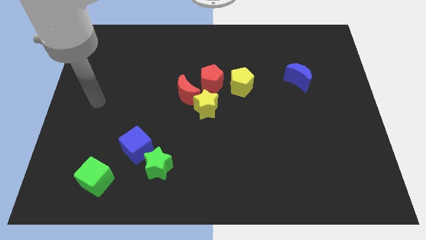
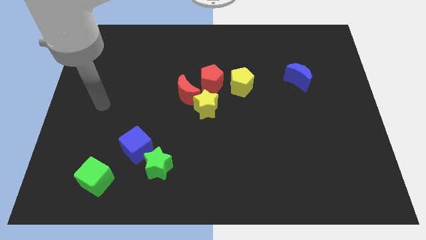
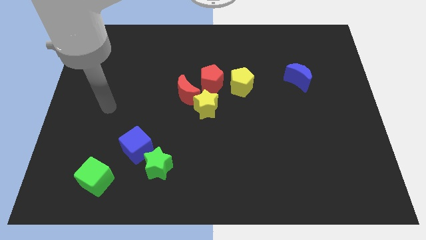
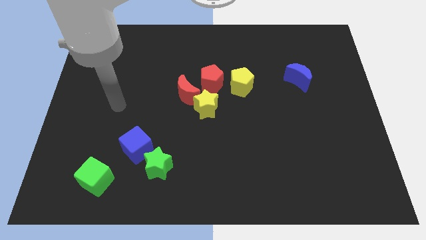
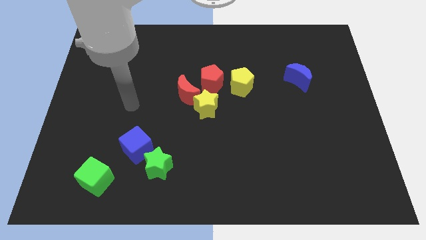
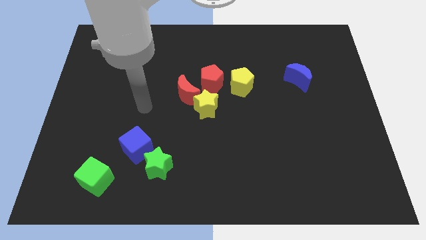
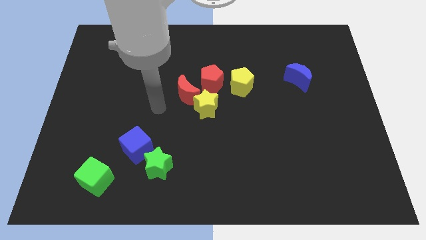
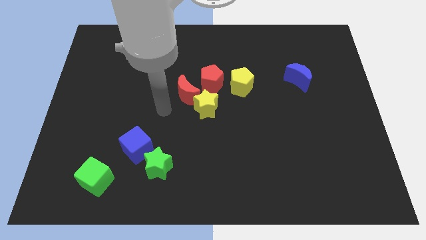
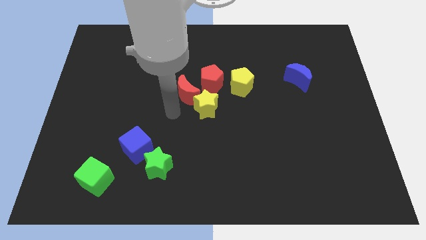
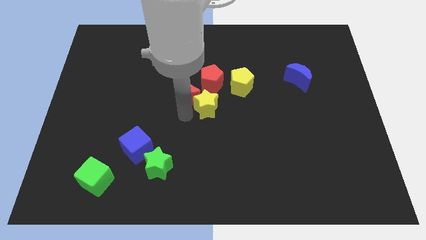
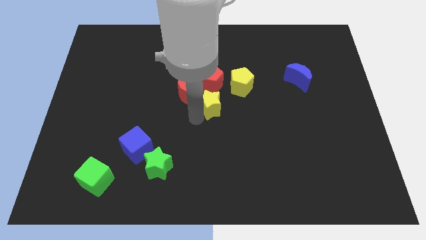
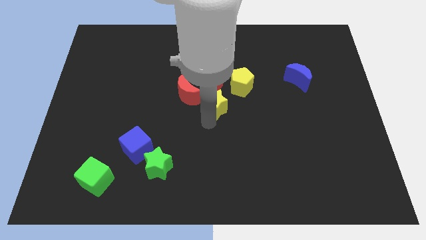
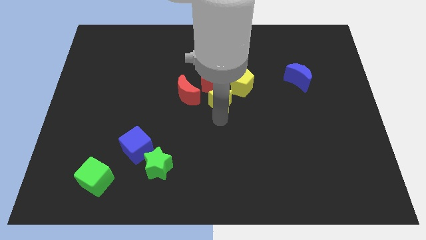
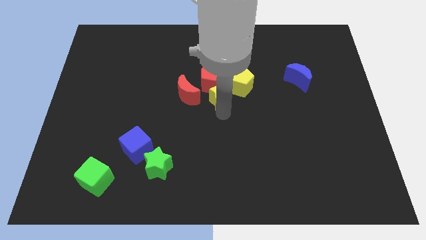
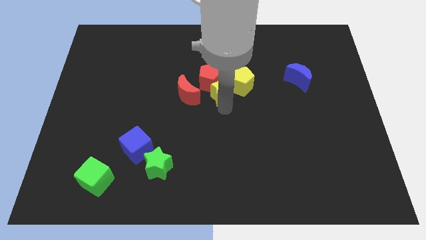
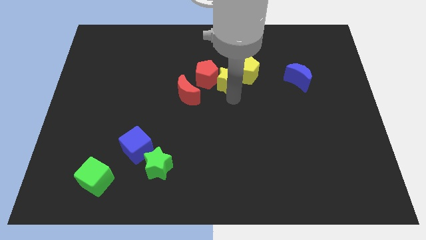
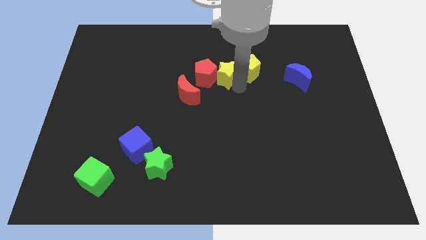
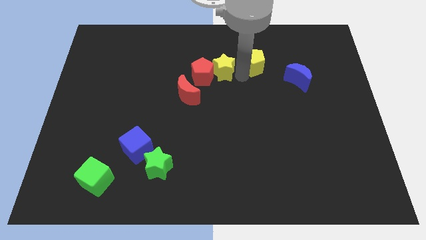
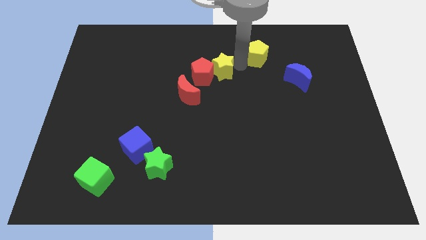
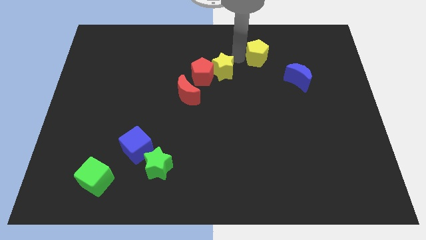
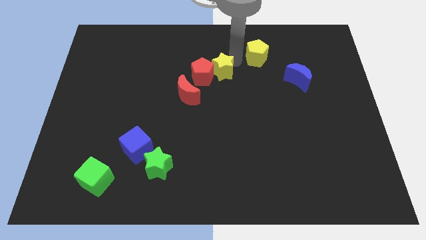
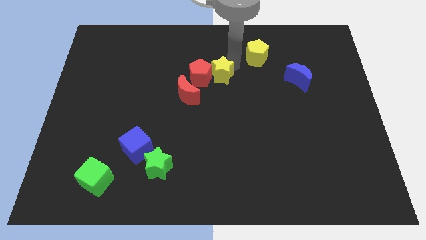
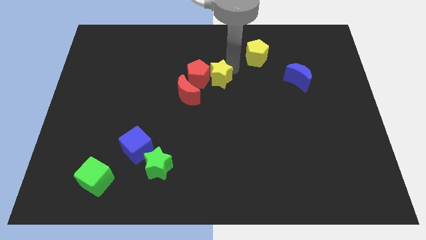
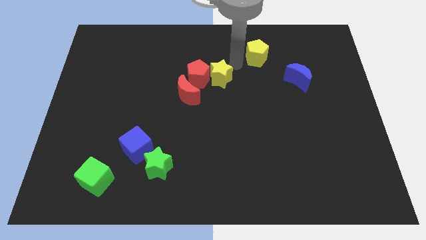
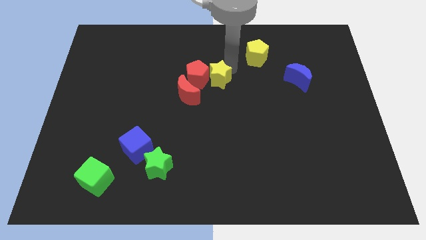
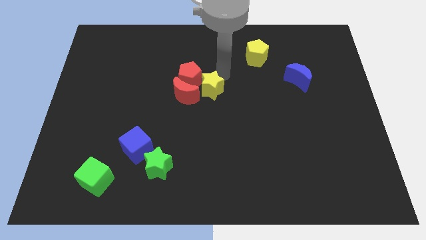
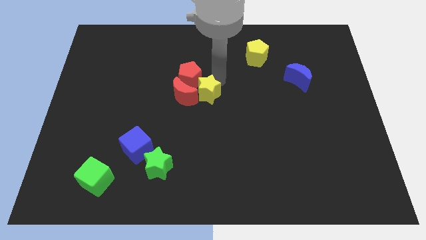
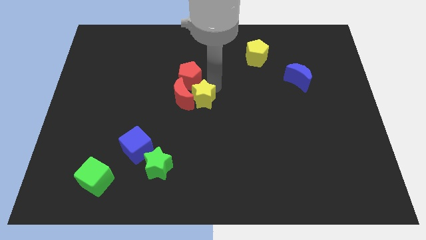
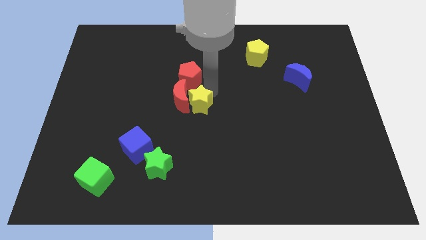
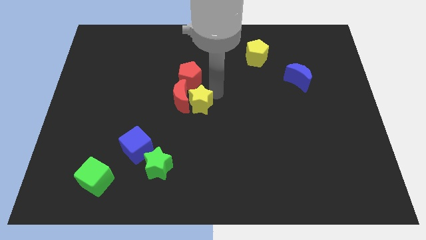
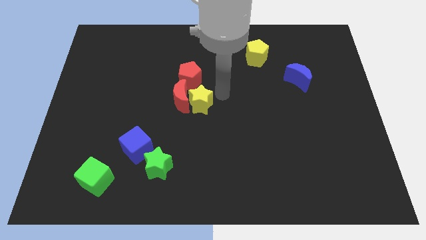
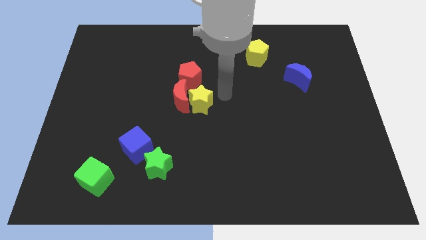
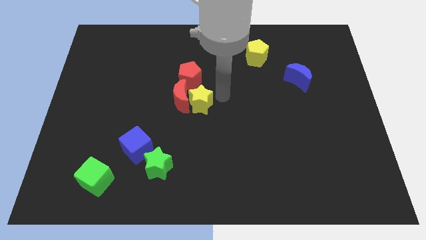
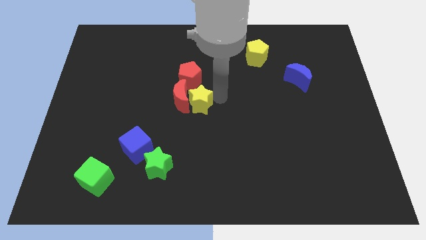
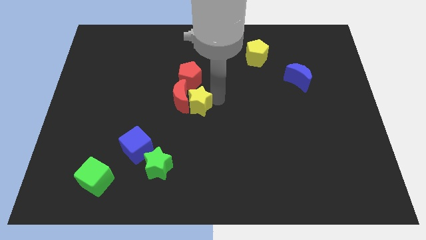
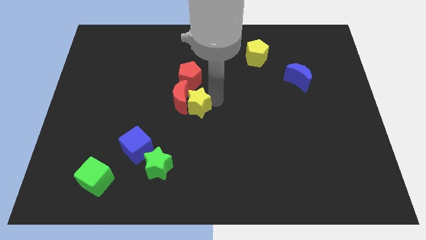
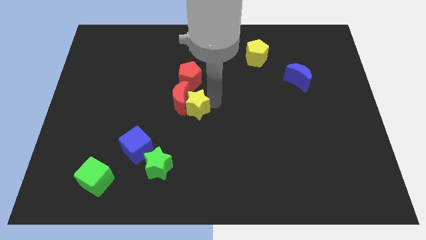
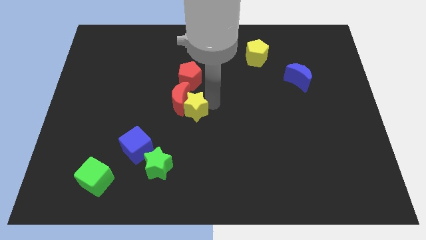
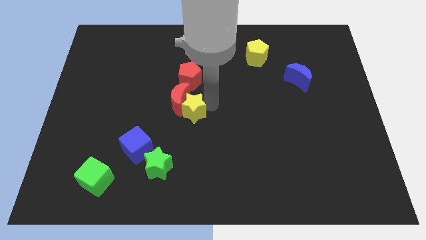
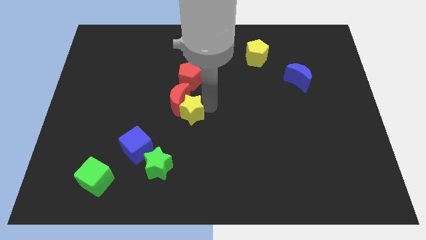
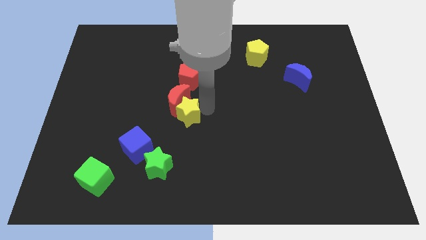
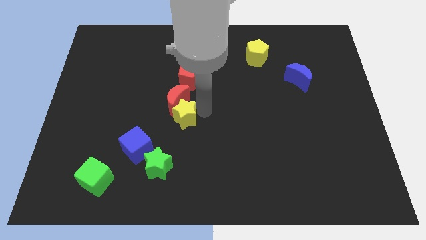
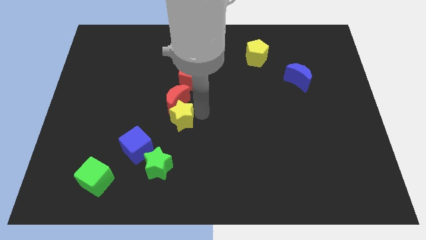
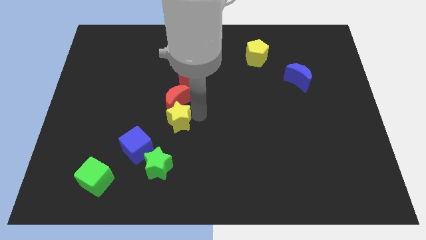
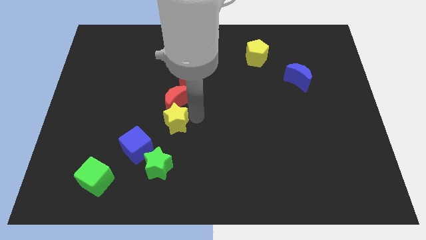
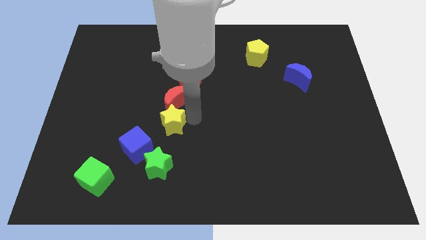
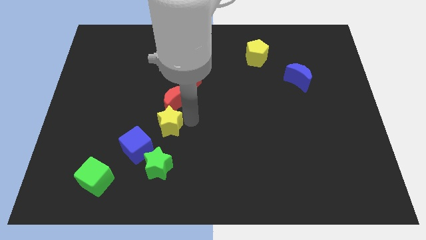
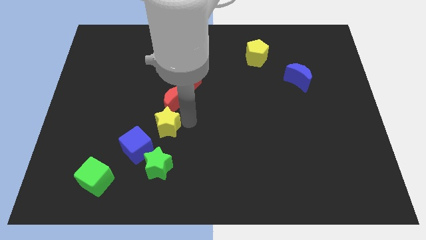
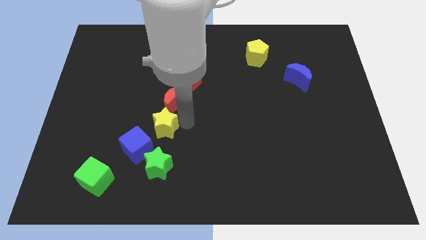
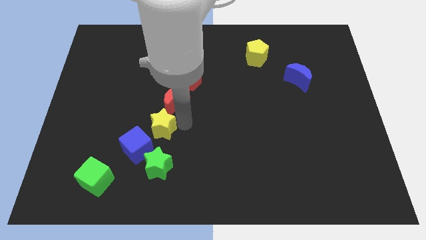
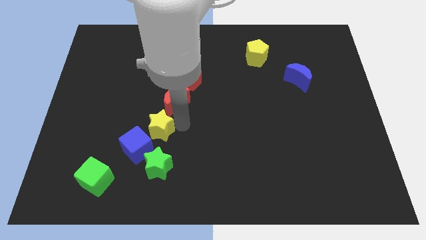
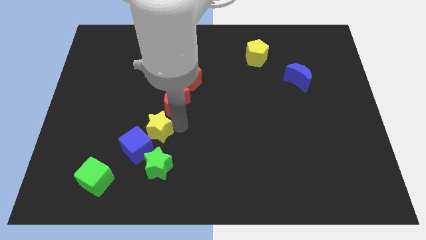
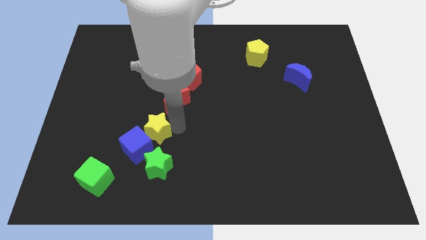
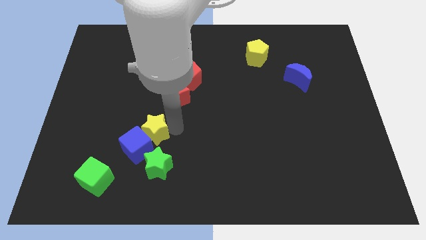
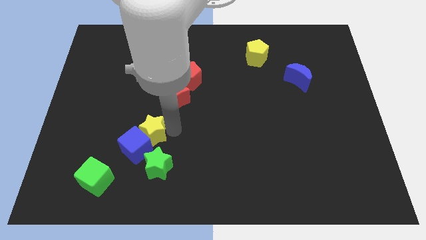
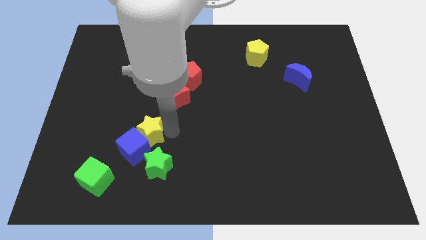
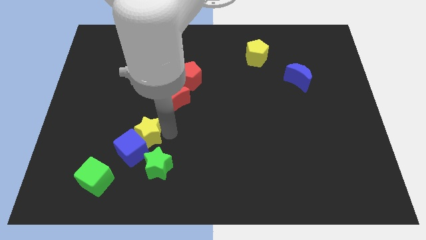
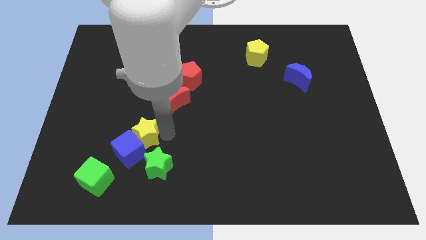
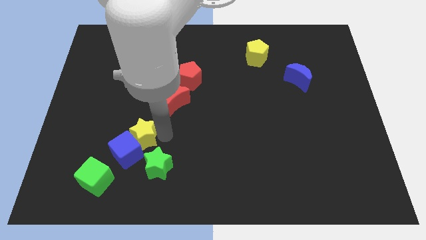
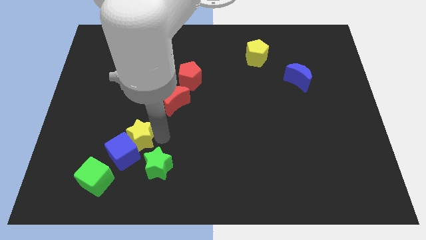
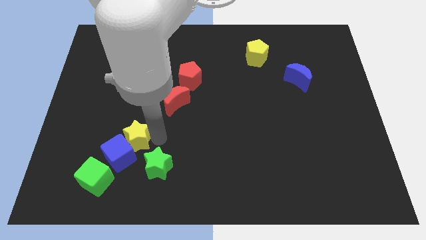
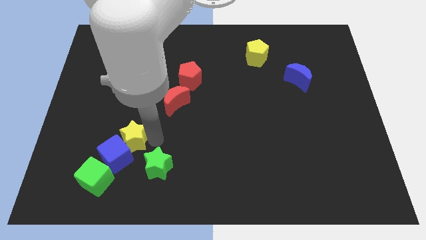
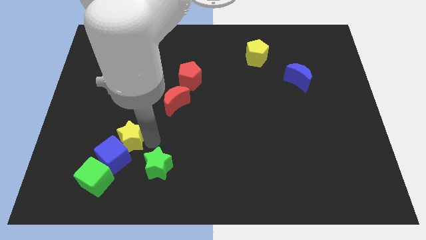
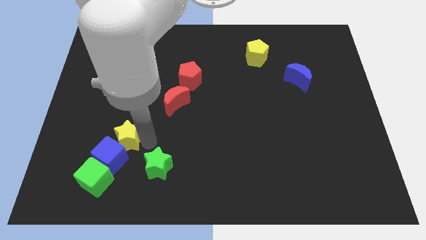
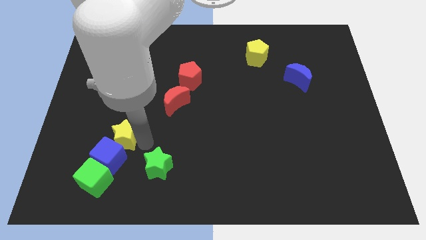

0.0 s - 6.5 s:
push the yellow star to the top side of the green cube
